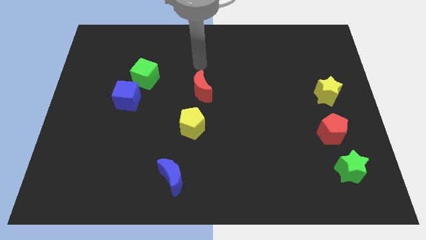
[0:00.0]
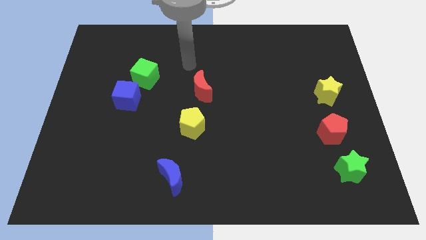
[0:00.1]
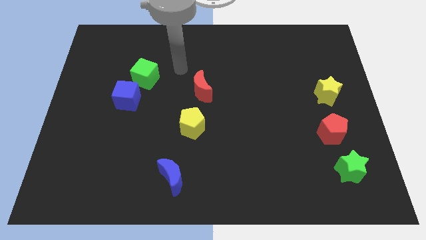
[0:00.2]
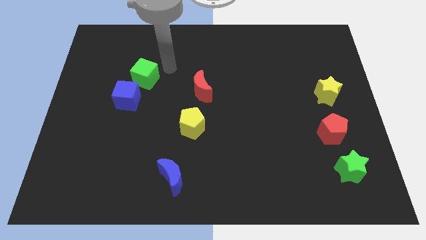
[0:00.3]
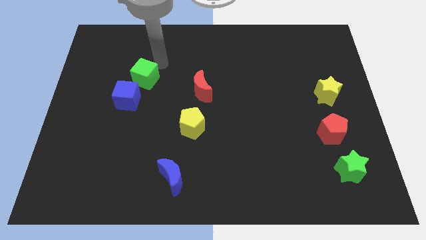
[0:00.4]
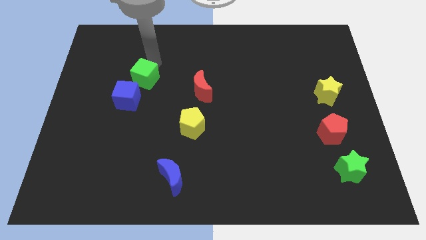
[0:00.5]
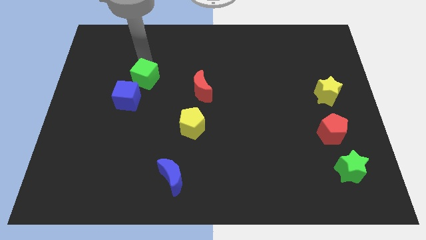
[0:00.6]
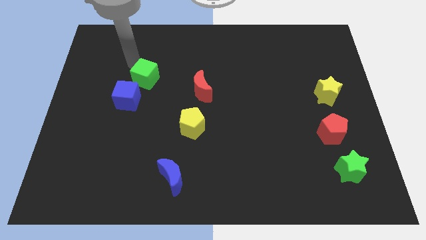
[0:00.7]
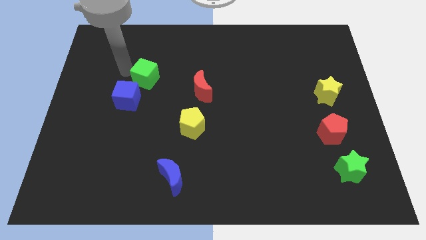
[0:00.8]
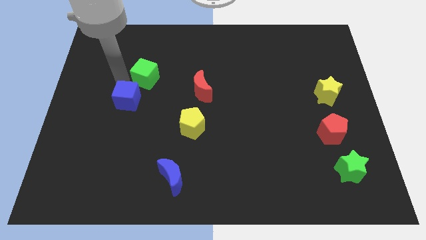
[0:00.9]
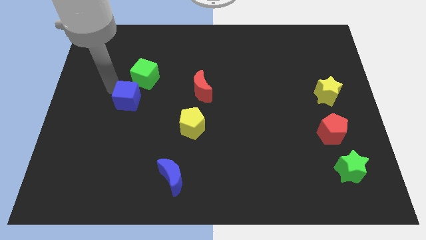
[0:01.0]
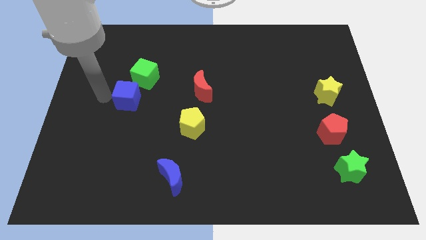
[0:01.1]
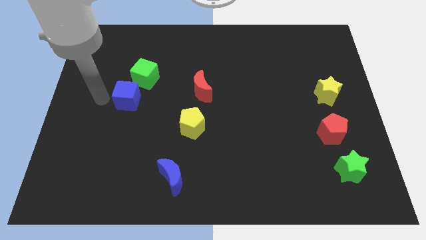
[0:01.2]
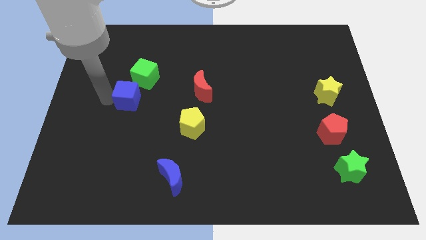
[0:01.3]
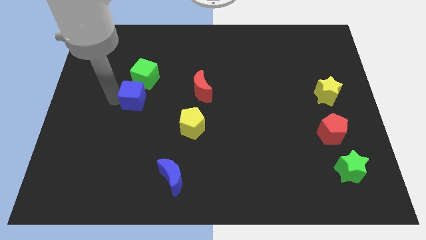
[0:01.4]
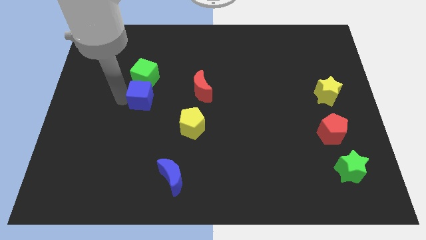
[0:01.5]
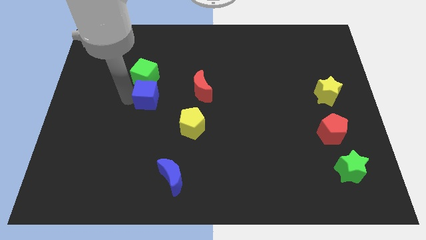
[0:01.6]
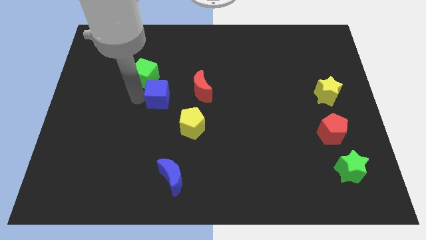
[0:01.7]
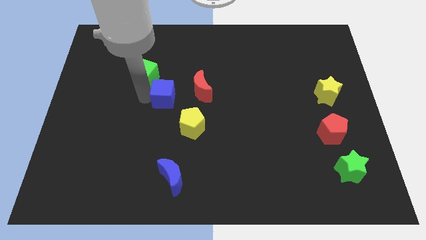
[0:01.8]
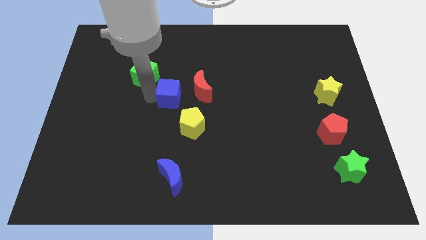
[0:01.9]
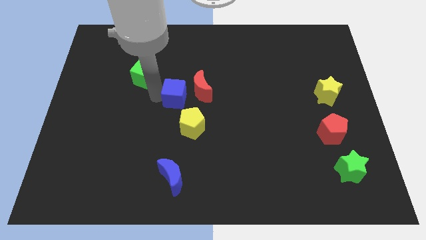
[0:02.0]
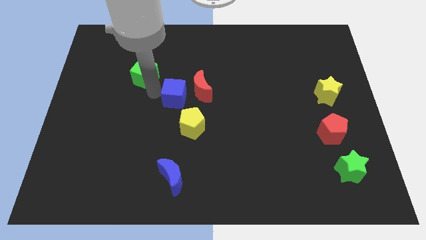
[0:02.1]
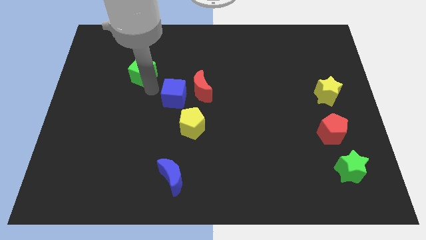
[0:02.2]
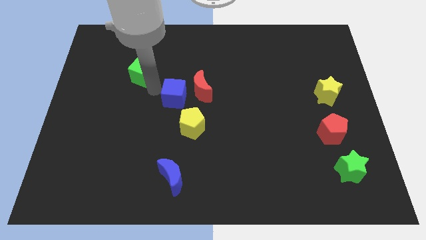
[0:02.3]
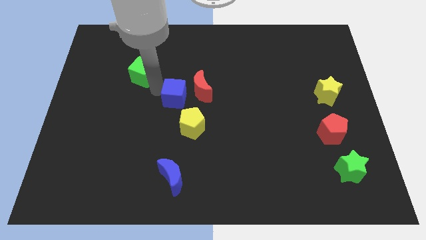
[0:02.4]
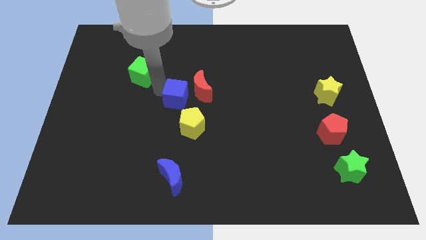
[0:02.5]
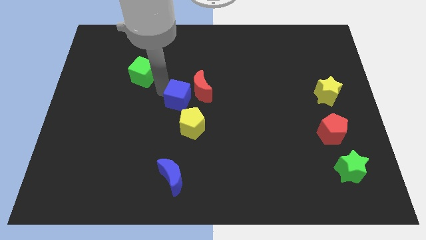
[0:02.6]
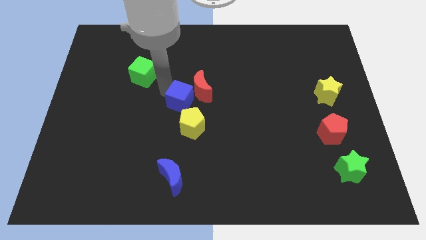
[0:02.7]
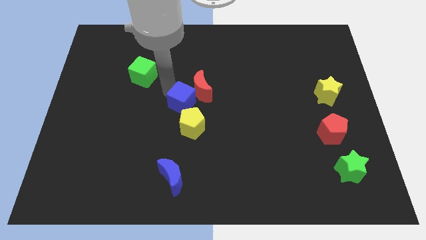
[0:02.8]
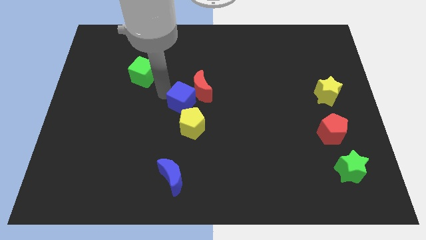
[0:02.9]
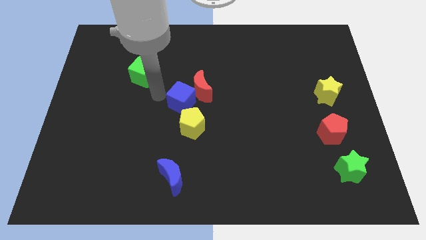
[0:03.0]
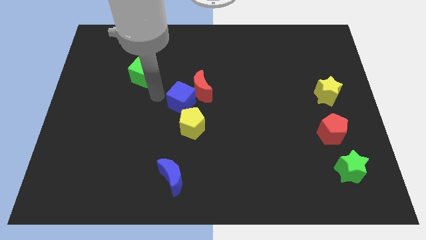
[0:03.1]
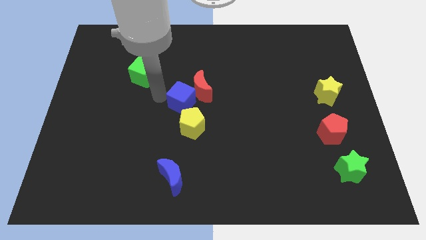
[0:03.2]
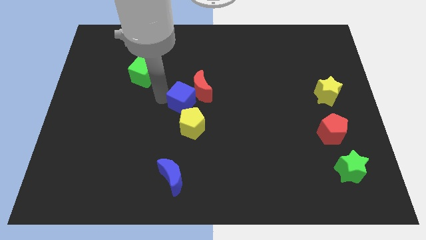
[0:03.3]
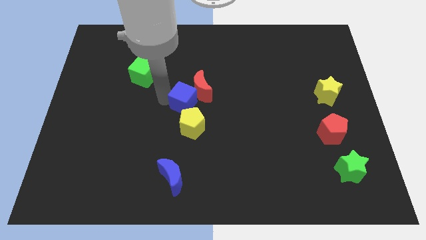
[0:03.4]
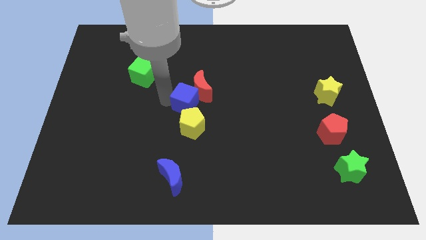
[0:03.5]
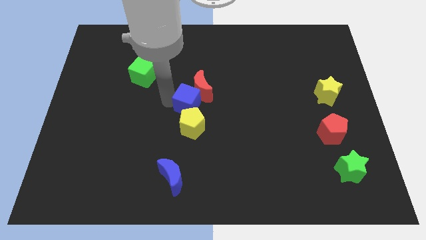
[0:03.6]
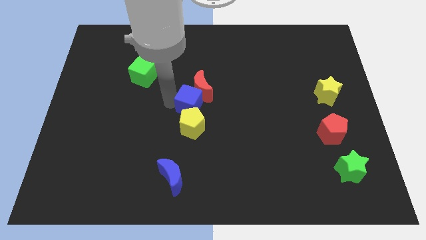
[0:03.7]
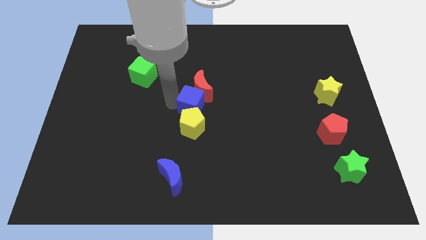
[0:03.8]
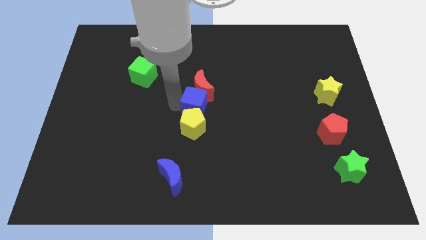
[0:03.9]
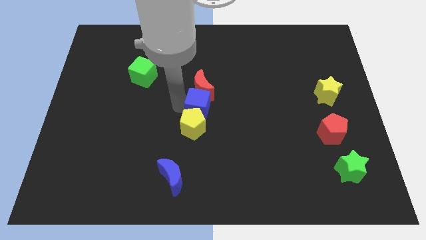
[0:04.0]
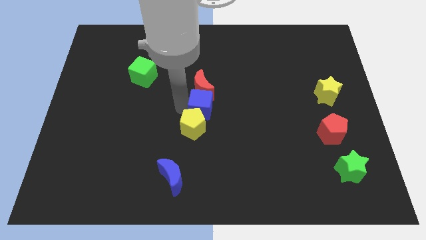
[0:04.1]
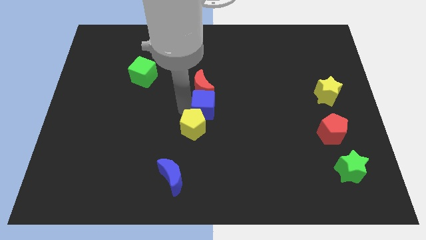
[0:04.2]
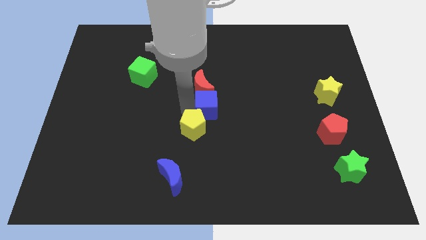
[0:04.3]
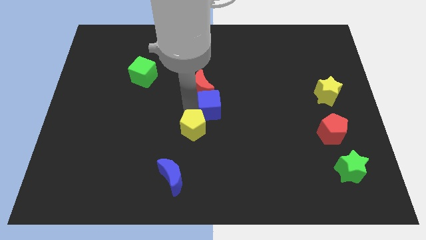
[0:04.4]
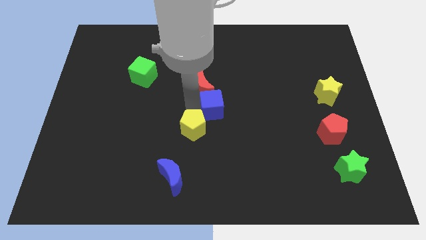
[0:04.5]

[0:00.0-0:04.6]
push the blue cube right

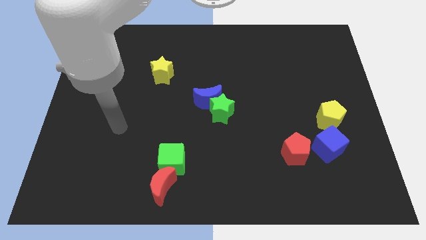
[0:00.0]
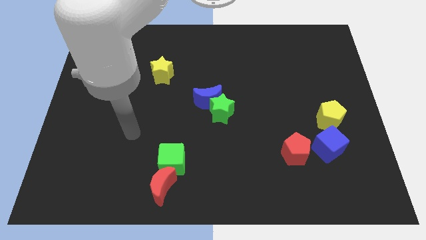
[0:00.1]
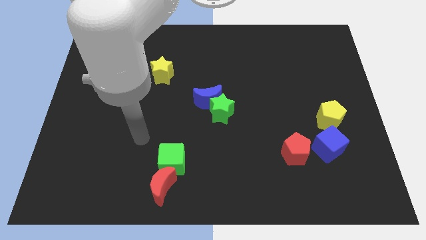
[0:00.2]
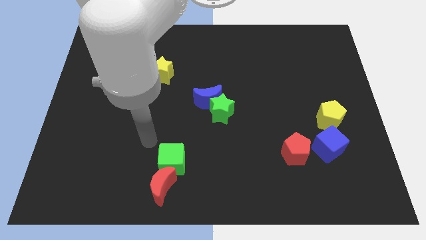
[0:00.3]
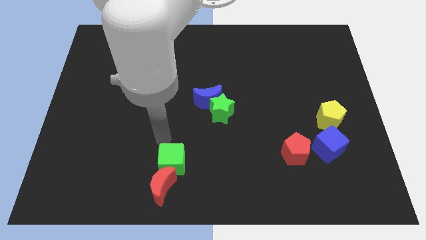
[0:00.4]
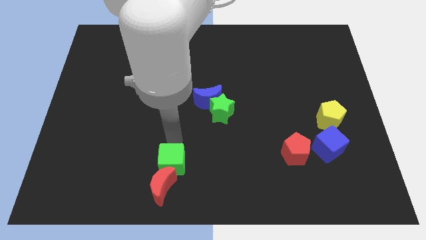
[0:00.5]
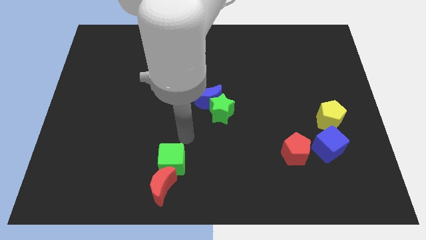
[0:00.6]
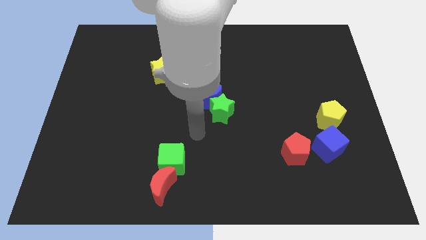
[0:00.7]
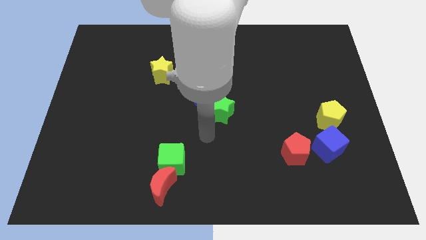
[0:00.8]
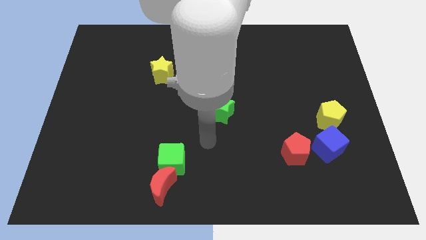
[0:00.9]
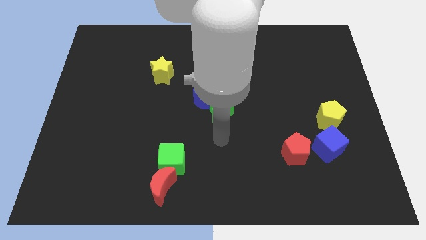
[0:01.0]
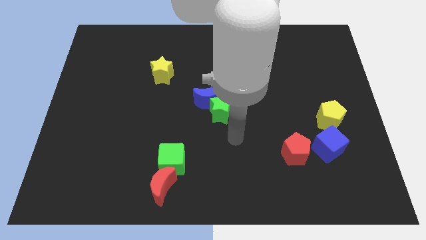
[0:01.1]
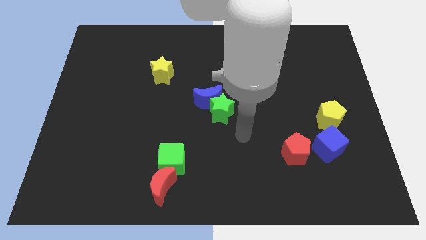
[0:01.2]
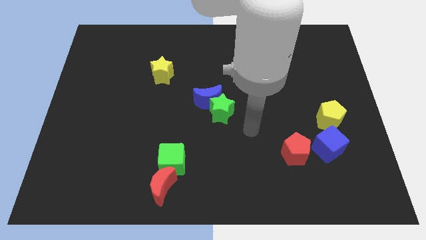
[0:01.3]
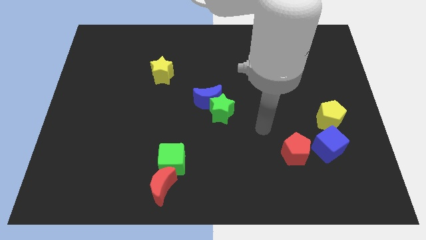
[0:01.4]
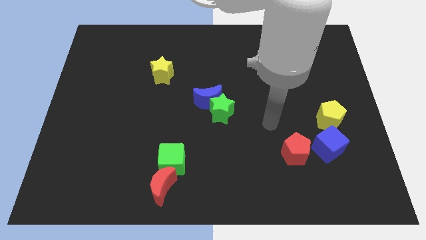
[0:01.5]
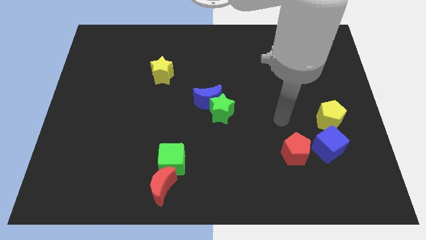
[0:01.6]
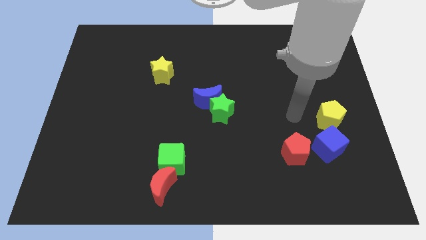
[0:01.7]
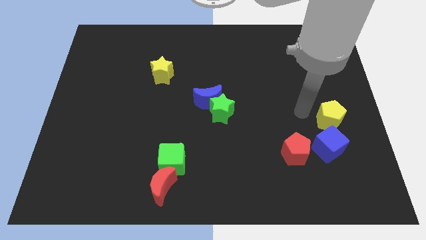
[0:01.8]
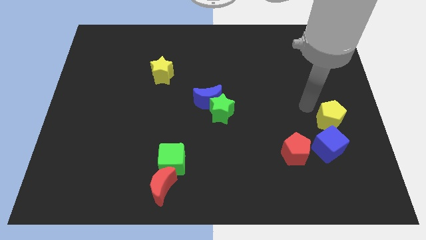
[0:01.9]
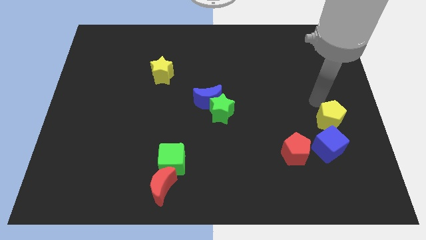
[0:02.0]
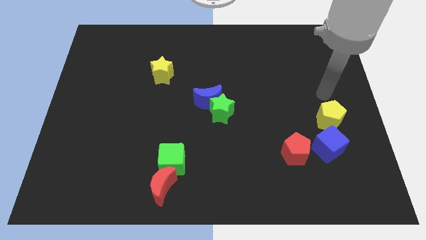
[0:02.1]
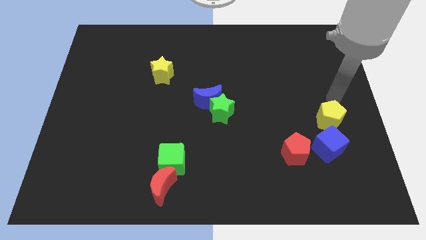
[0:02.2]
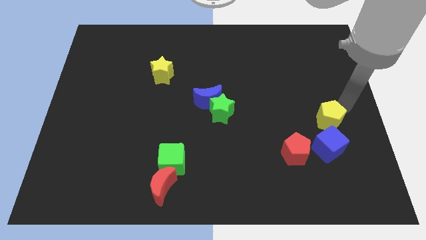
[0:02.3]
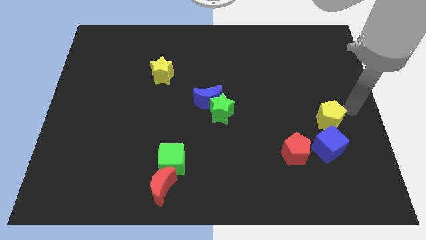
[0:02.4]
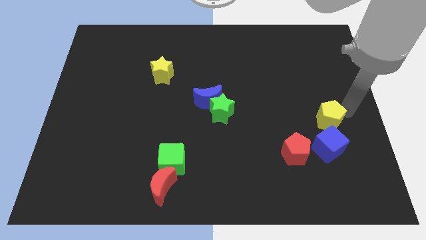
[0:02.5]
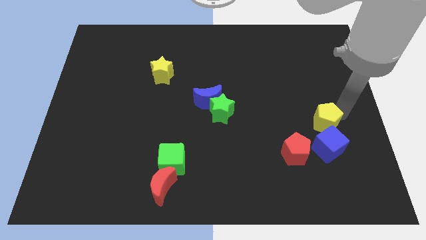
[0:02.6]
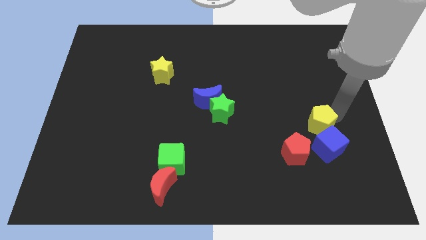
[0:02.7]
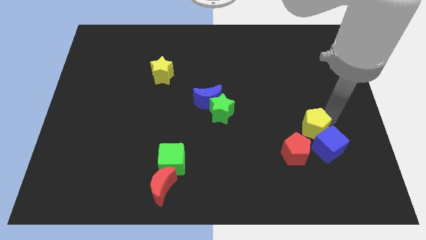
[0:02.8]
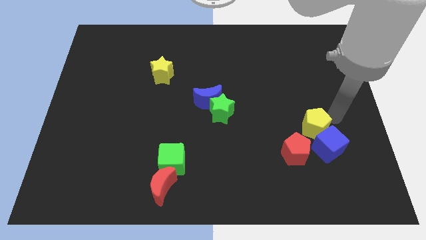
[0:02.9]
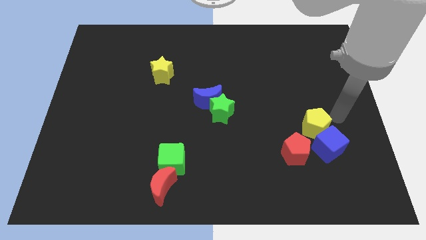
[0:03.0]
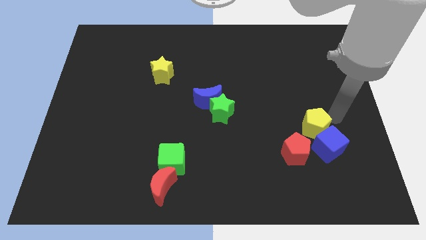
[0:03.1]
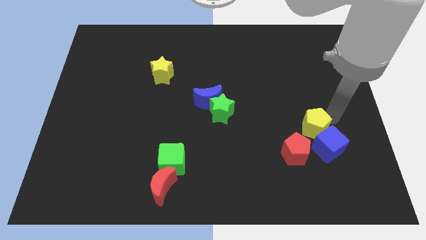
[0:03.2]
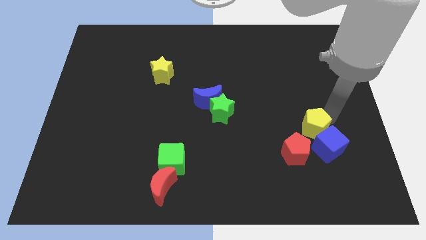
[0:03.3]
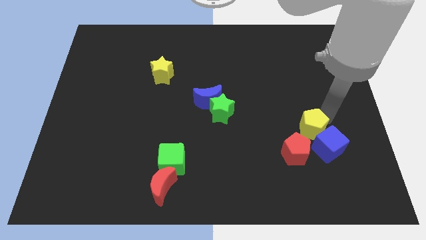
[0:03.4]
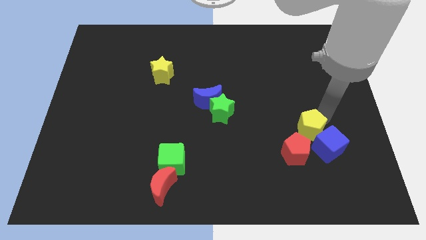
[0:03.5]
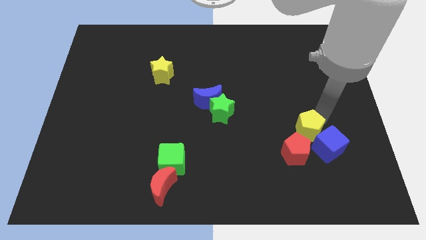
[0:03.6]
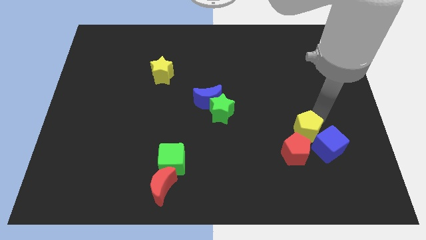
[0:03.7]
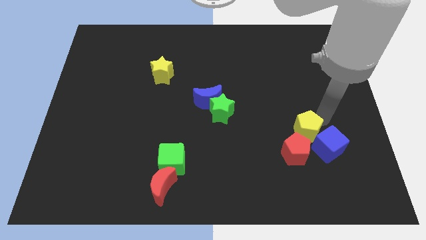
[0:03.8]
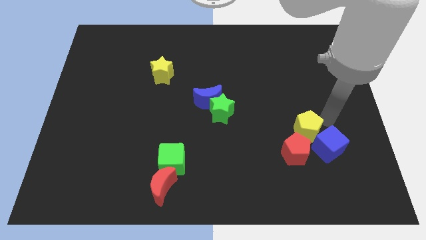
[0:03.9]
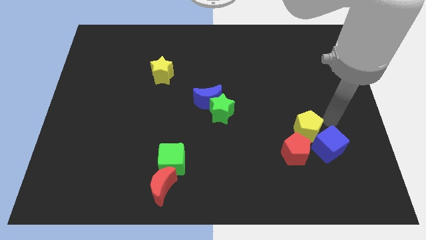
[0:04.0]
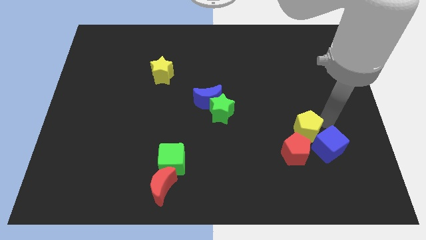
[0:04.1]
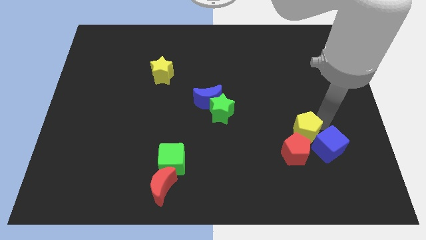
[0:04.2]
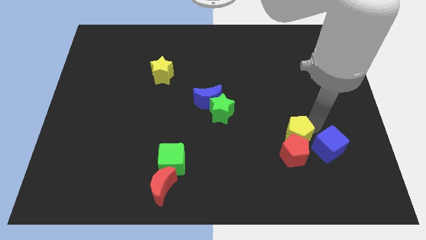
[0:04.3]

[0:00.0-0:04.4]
slightly push the yellow pentagon down and left diagonally
